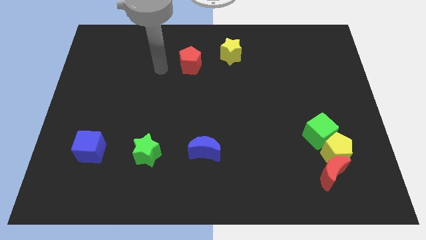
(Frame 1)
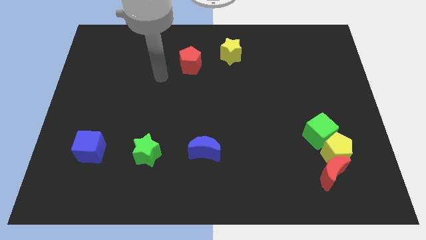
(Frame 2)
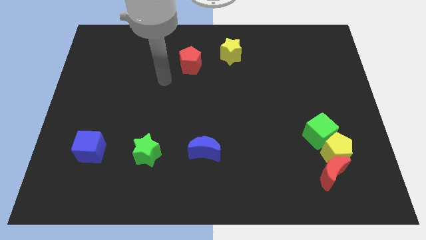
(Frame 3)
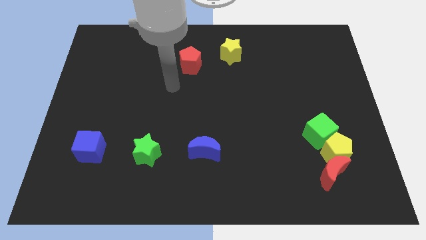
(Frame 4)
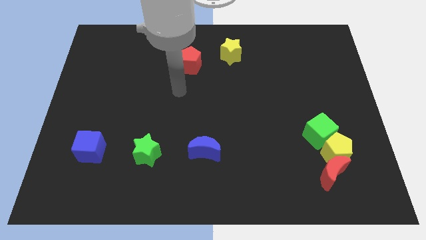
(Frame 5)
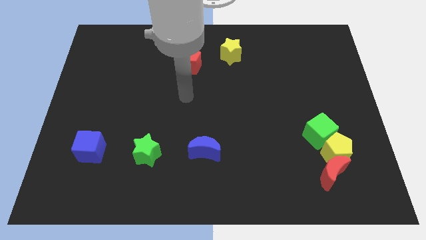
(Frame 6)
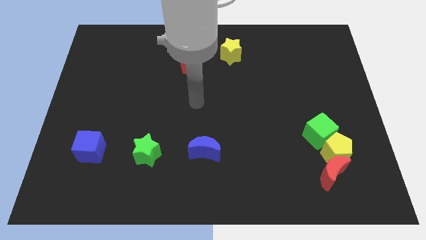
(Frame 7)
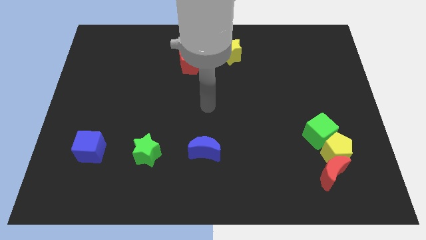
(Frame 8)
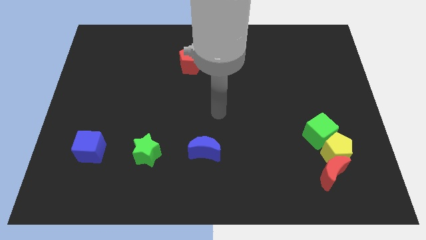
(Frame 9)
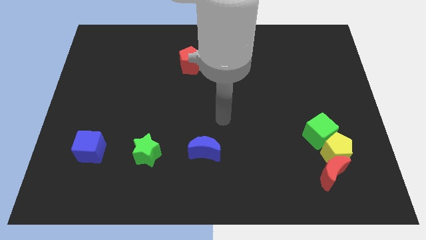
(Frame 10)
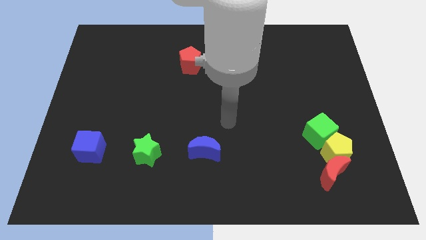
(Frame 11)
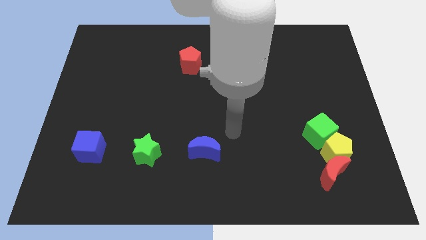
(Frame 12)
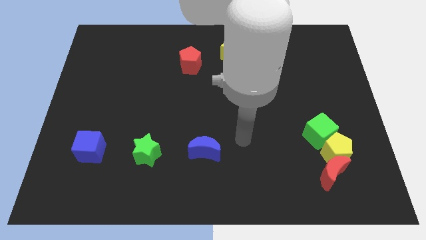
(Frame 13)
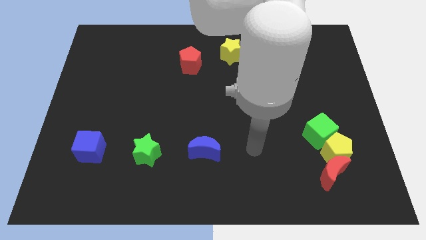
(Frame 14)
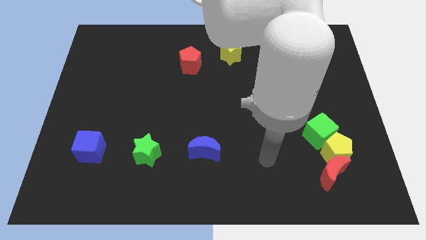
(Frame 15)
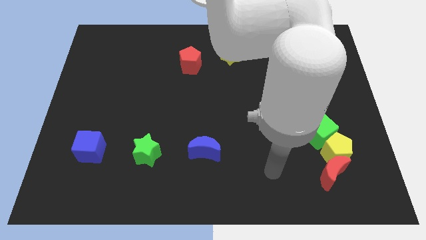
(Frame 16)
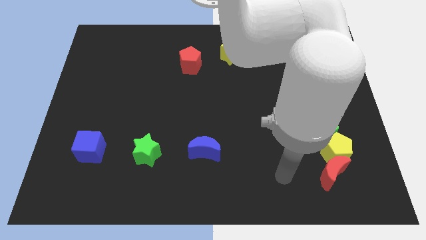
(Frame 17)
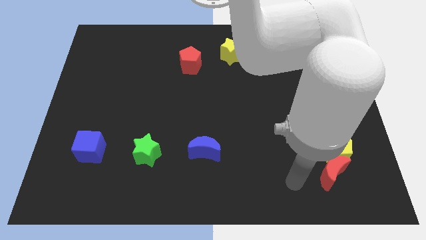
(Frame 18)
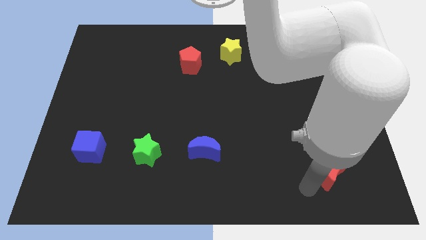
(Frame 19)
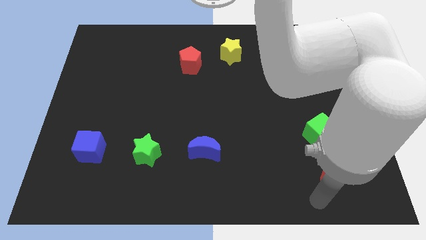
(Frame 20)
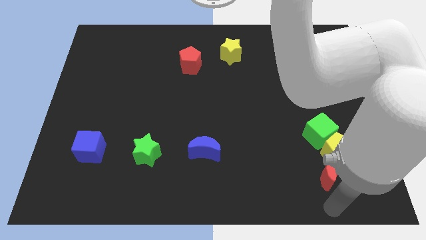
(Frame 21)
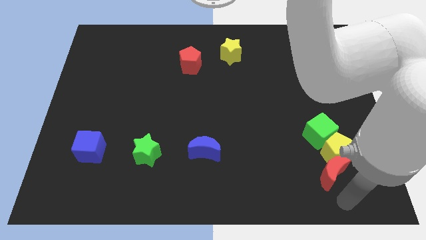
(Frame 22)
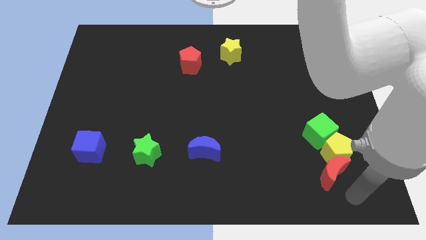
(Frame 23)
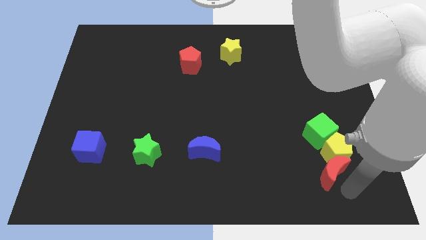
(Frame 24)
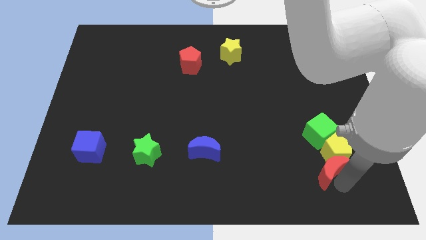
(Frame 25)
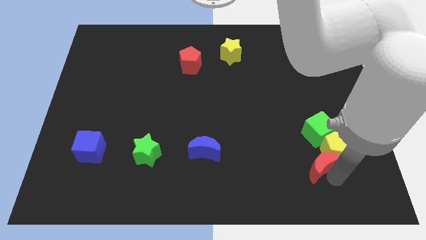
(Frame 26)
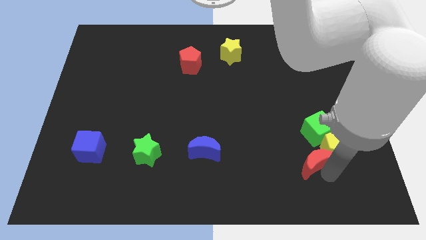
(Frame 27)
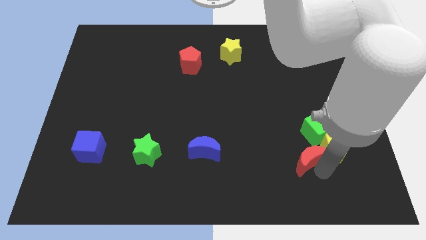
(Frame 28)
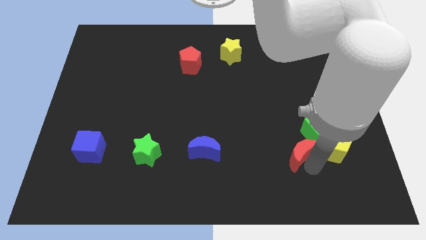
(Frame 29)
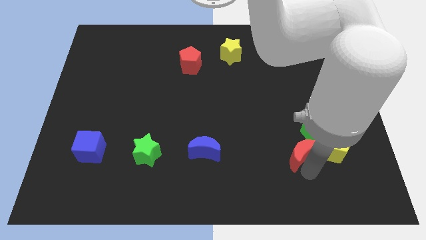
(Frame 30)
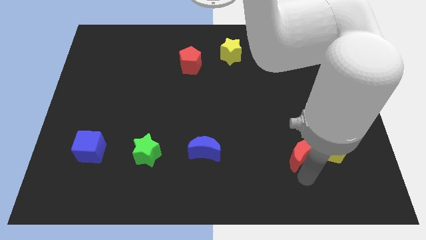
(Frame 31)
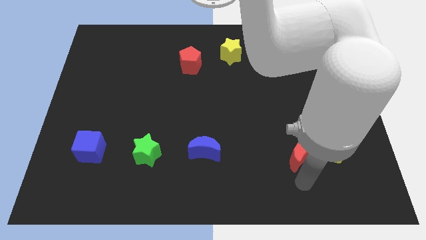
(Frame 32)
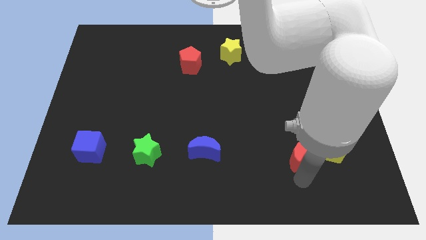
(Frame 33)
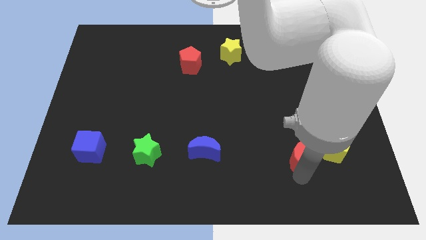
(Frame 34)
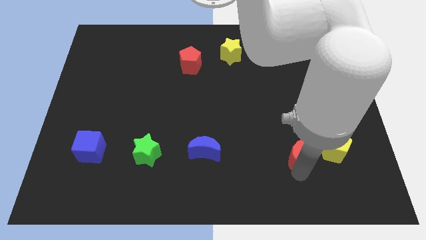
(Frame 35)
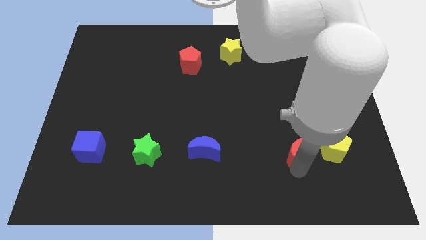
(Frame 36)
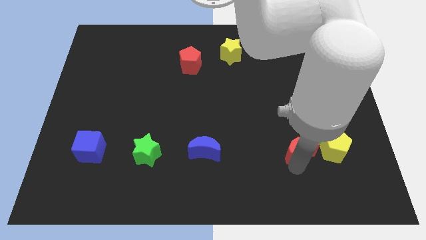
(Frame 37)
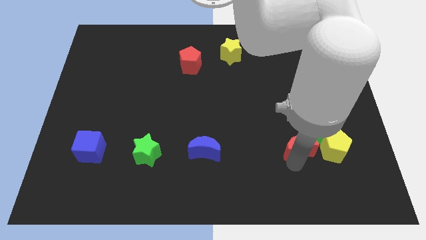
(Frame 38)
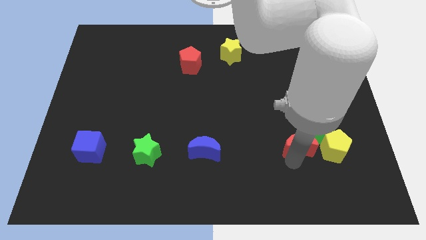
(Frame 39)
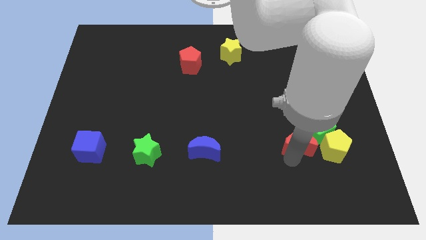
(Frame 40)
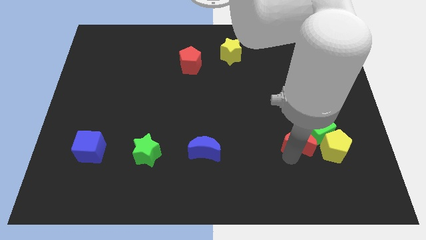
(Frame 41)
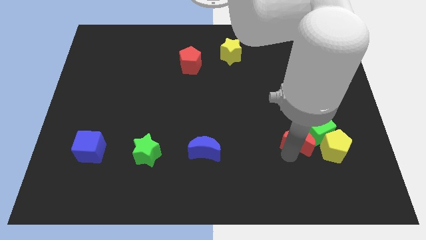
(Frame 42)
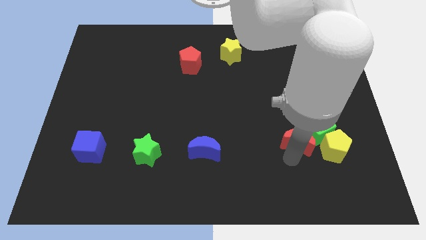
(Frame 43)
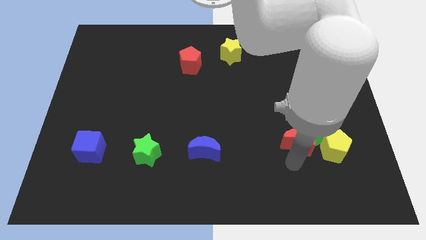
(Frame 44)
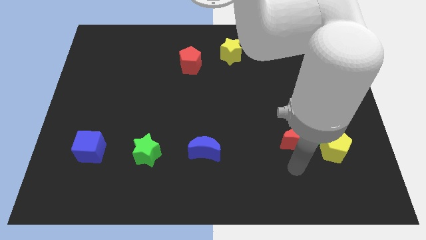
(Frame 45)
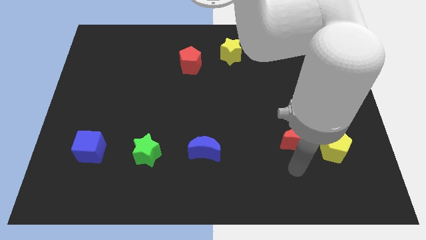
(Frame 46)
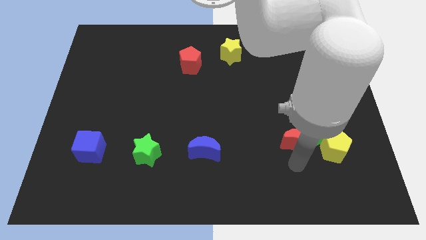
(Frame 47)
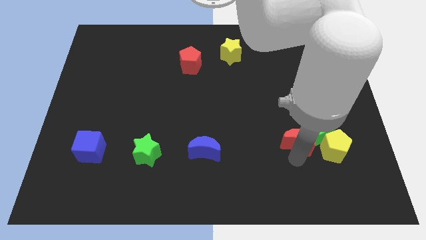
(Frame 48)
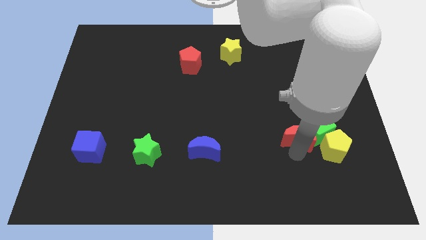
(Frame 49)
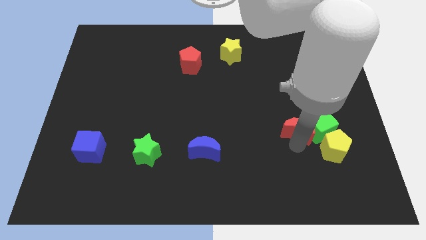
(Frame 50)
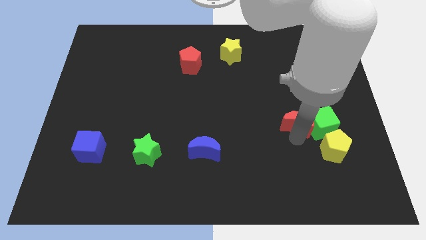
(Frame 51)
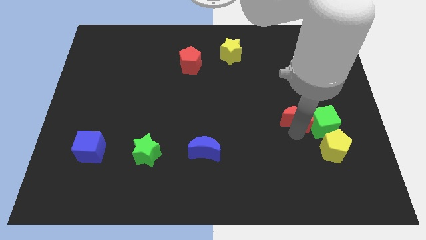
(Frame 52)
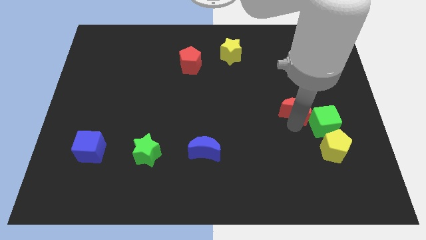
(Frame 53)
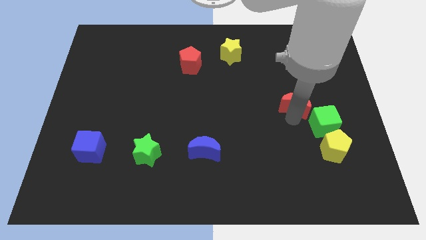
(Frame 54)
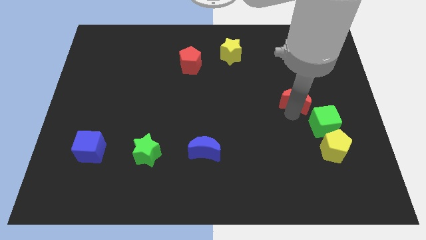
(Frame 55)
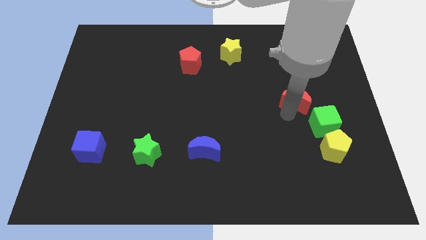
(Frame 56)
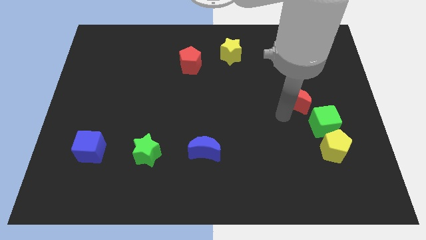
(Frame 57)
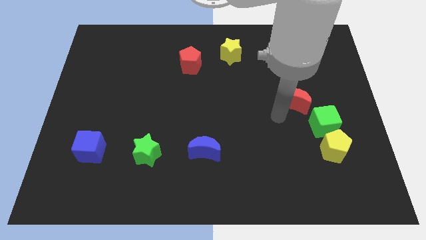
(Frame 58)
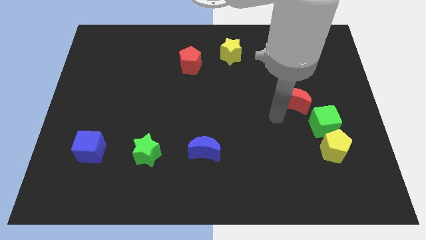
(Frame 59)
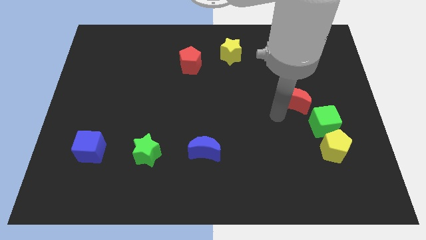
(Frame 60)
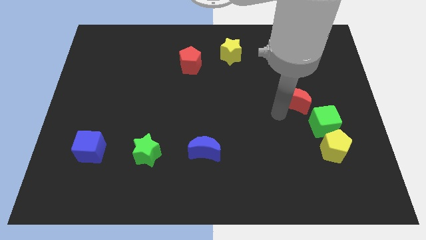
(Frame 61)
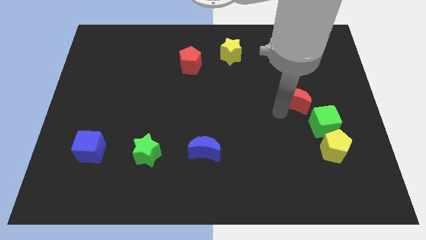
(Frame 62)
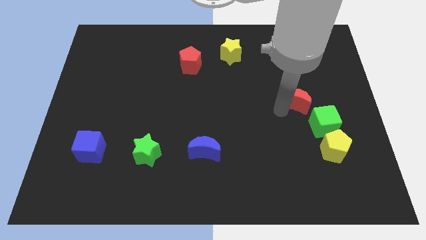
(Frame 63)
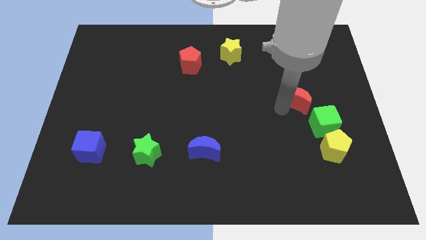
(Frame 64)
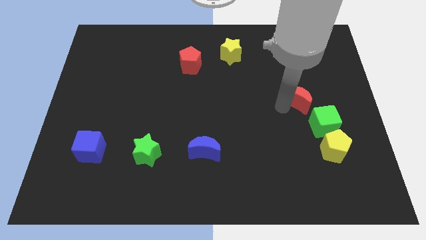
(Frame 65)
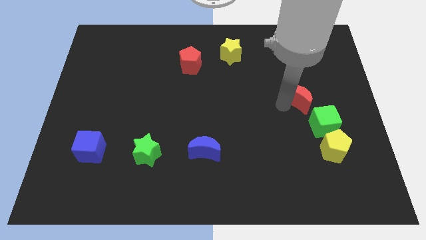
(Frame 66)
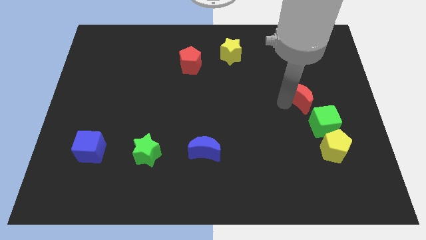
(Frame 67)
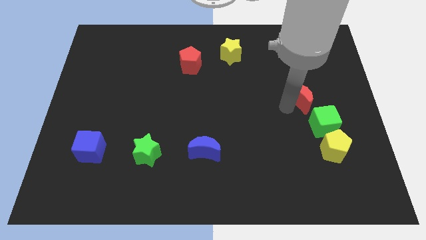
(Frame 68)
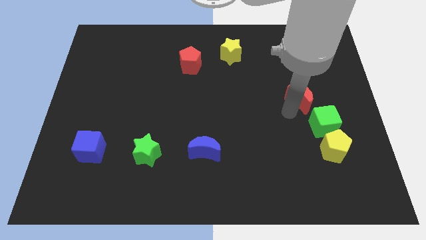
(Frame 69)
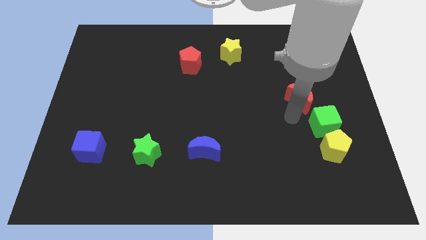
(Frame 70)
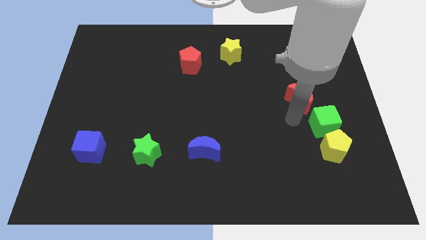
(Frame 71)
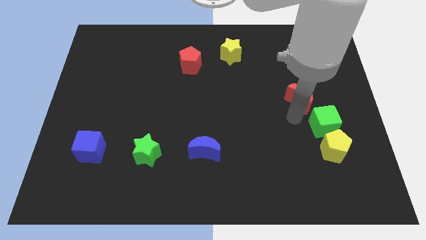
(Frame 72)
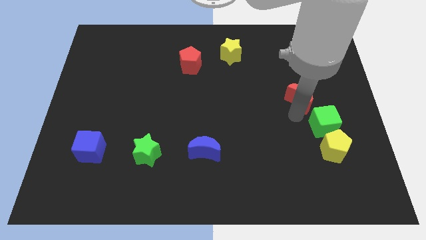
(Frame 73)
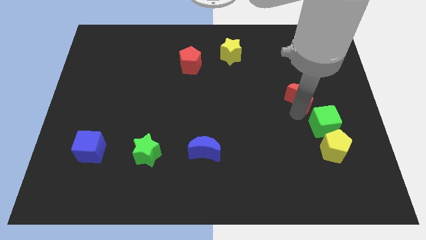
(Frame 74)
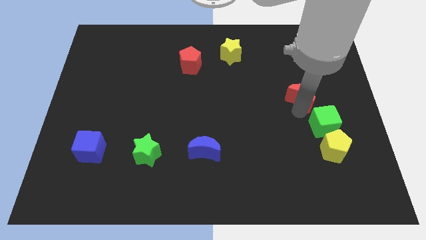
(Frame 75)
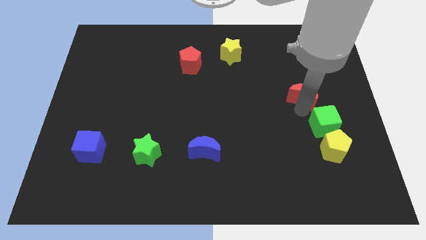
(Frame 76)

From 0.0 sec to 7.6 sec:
move the red moon upwards

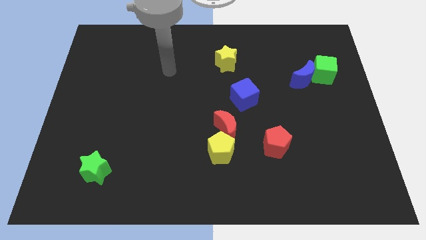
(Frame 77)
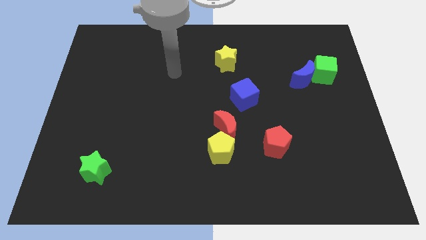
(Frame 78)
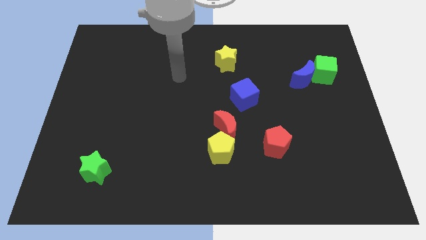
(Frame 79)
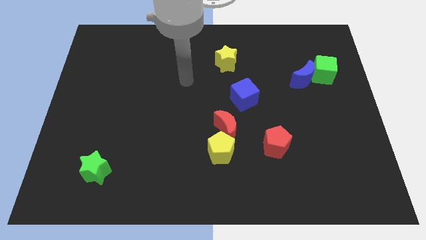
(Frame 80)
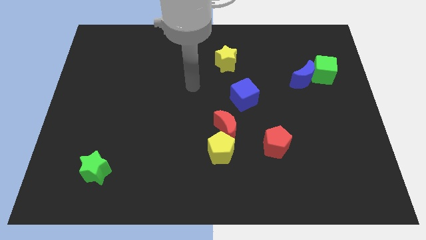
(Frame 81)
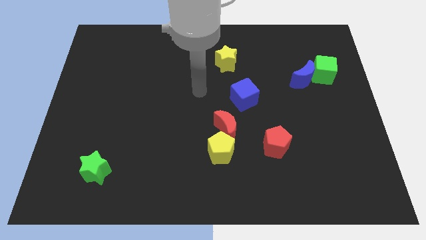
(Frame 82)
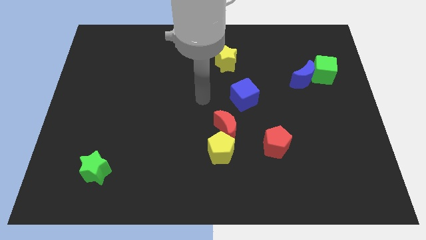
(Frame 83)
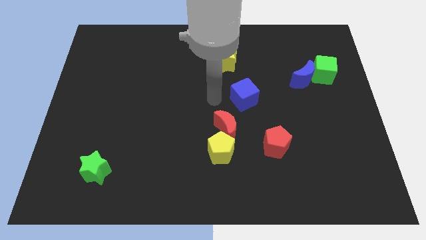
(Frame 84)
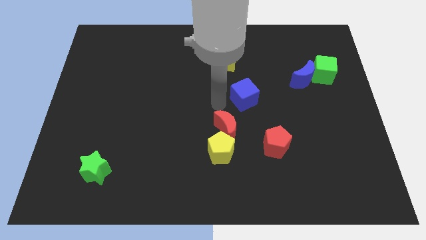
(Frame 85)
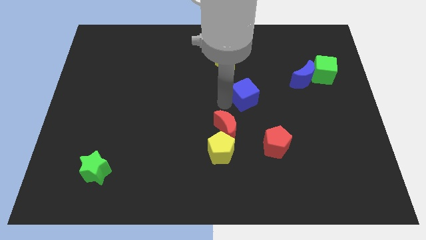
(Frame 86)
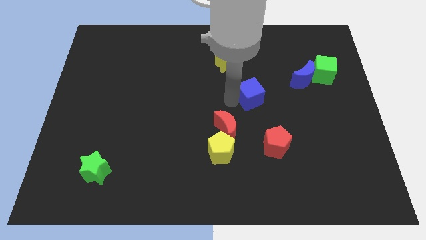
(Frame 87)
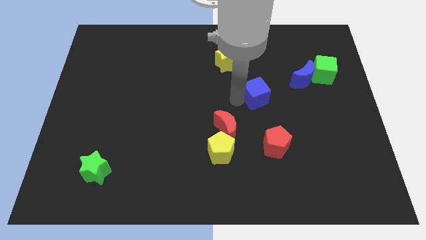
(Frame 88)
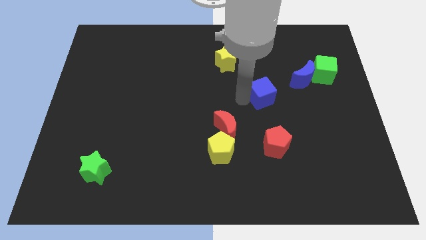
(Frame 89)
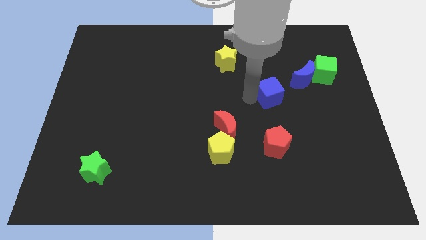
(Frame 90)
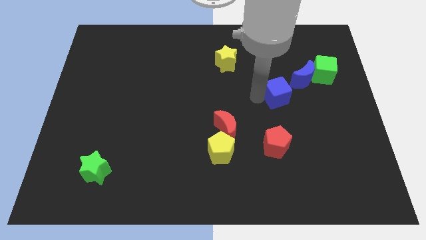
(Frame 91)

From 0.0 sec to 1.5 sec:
move the blue cube right slightly
